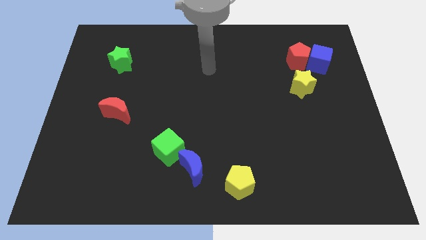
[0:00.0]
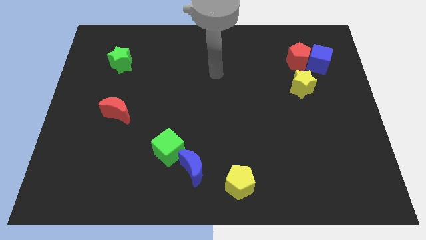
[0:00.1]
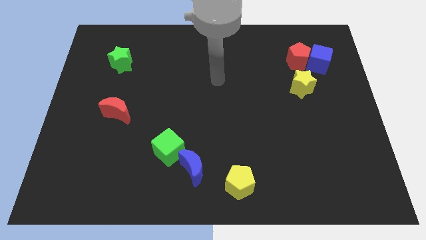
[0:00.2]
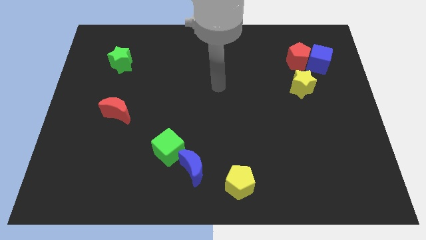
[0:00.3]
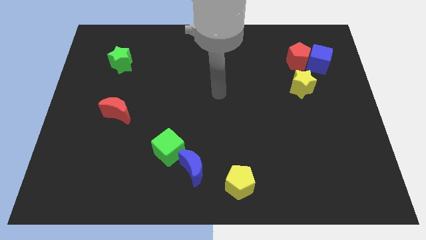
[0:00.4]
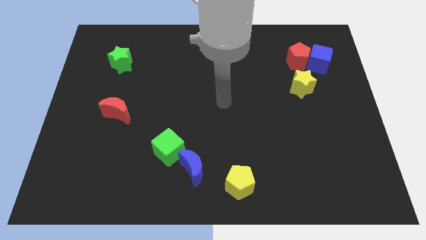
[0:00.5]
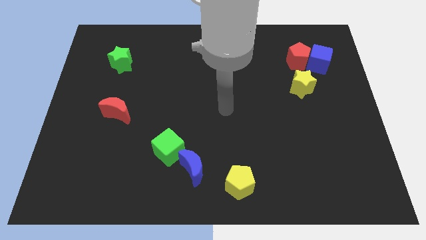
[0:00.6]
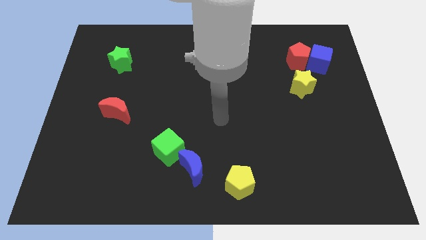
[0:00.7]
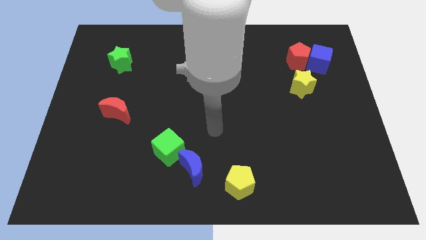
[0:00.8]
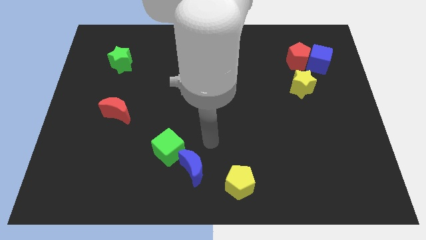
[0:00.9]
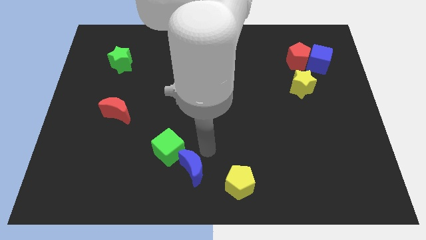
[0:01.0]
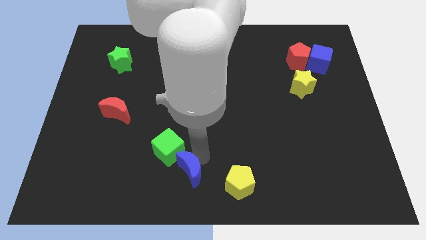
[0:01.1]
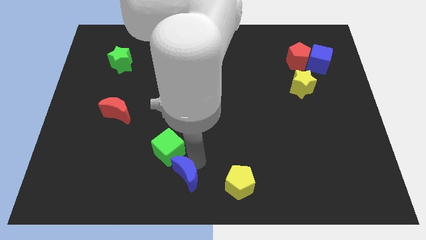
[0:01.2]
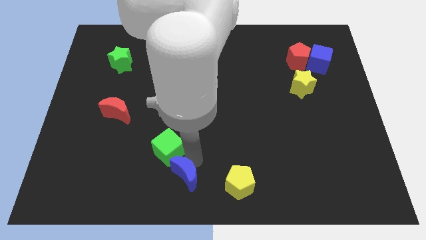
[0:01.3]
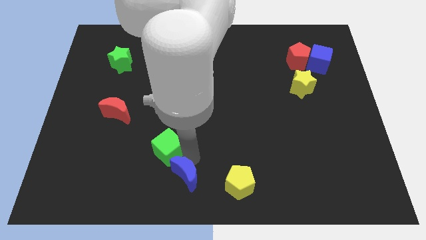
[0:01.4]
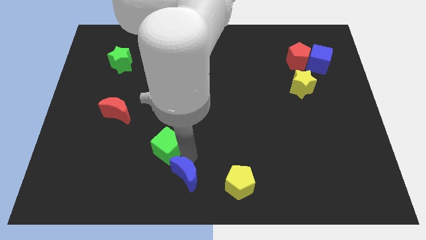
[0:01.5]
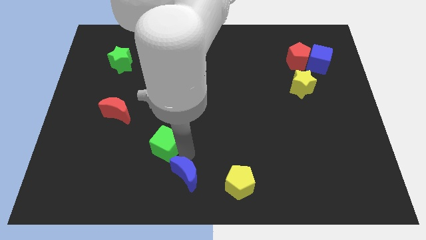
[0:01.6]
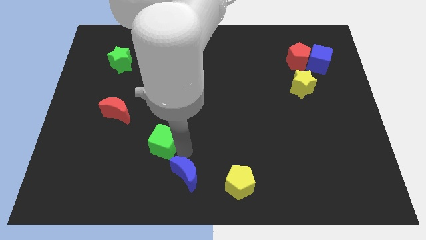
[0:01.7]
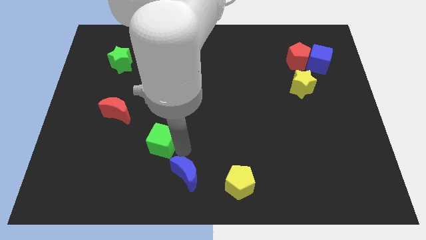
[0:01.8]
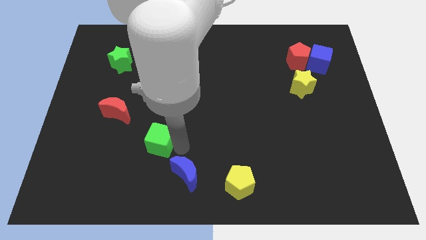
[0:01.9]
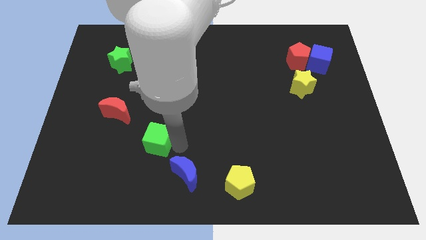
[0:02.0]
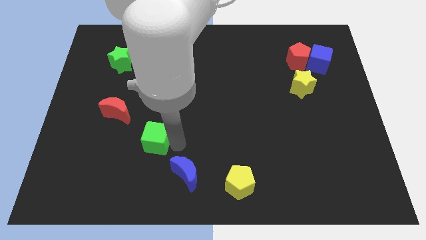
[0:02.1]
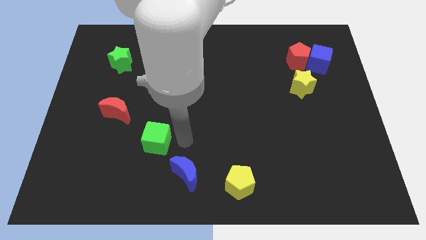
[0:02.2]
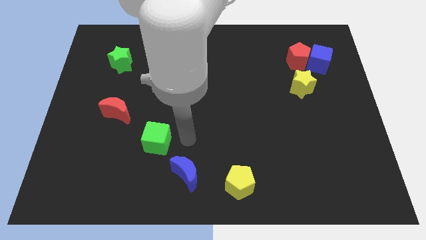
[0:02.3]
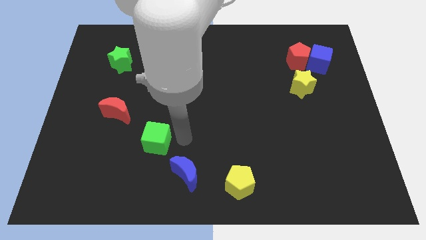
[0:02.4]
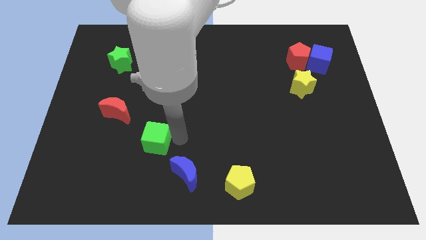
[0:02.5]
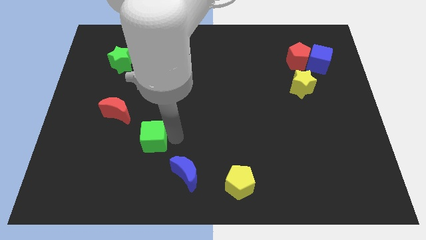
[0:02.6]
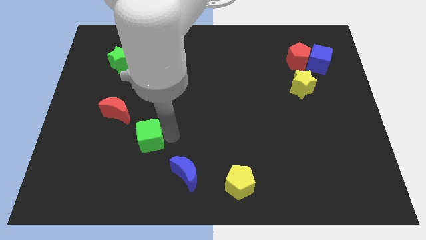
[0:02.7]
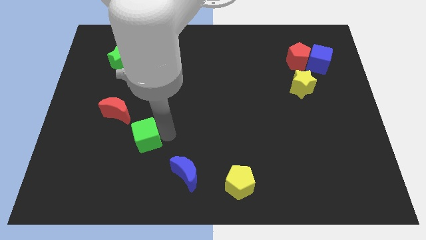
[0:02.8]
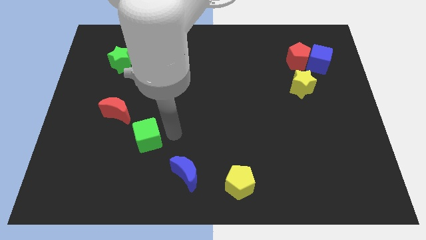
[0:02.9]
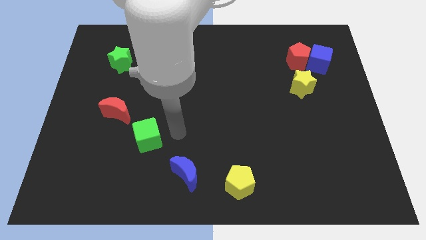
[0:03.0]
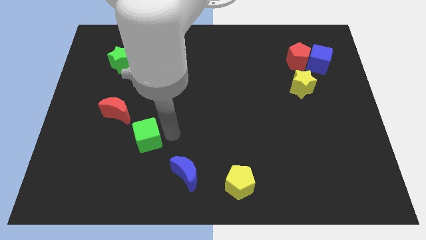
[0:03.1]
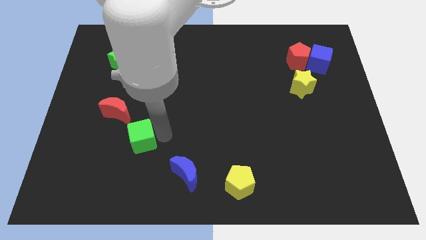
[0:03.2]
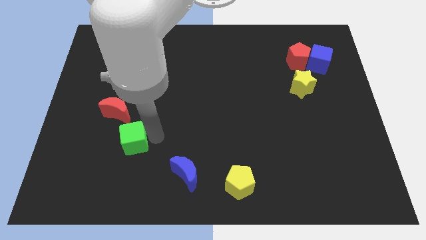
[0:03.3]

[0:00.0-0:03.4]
move the green cube a little bit to the left

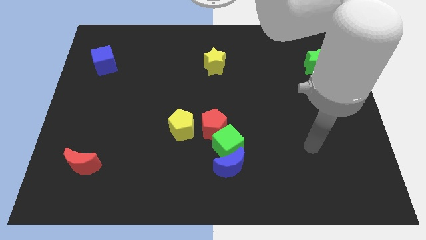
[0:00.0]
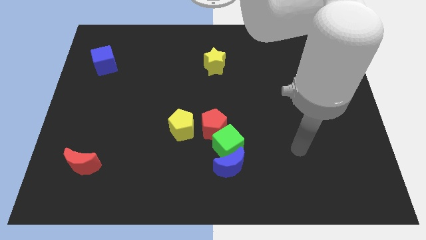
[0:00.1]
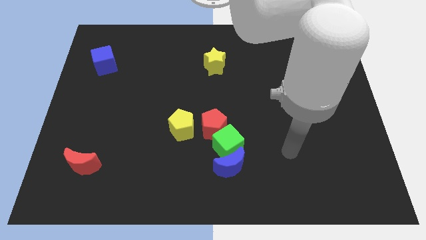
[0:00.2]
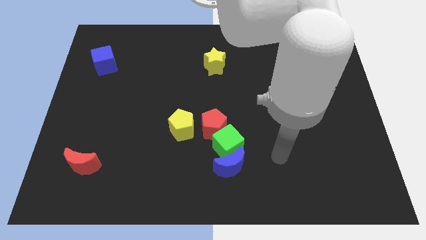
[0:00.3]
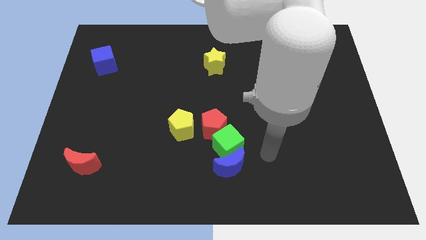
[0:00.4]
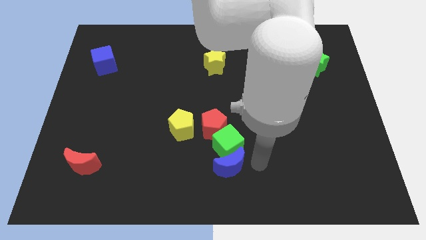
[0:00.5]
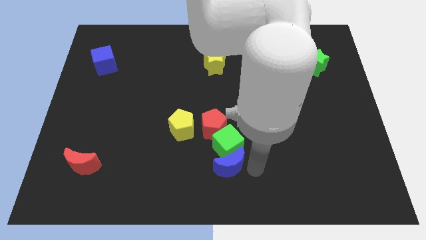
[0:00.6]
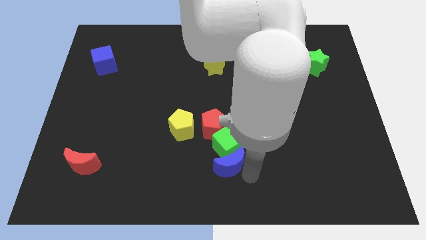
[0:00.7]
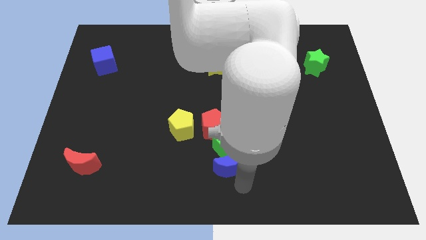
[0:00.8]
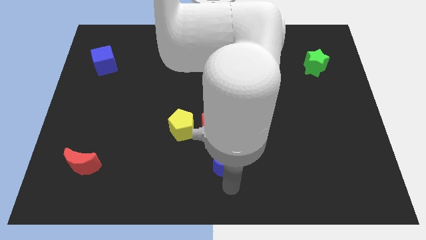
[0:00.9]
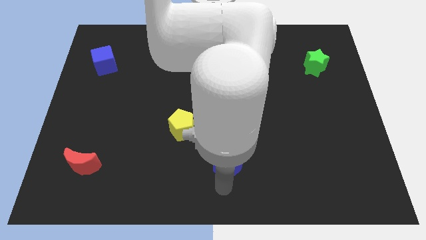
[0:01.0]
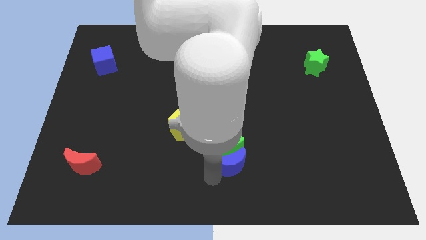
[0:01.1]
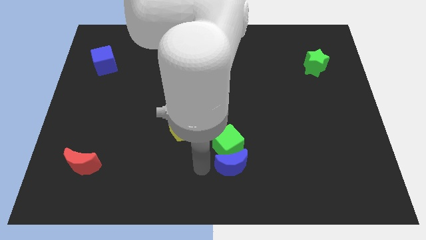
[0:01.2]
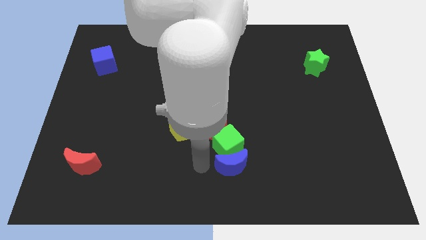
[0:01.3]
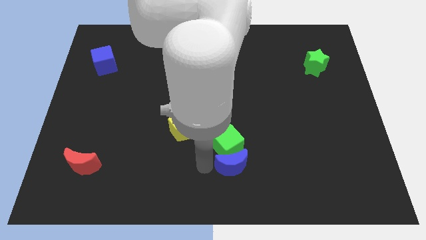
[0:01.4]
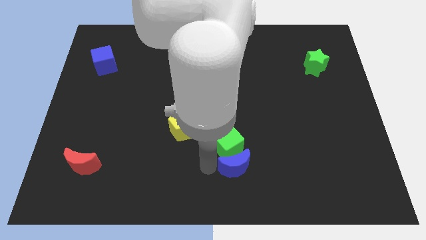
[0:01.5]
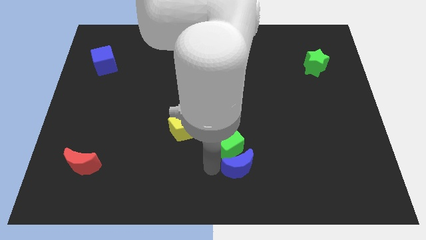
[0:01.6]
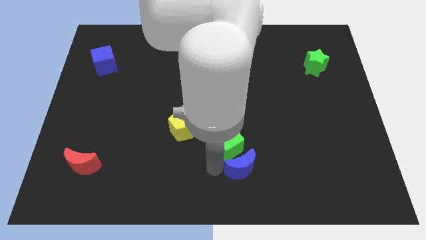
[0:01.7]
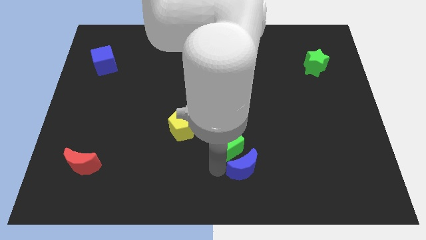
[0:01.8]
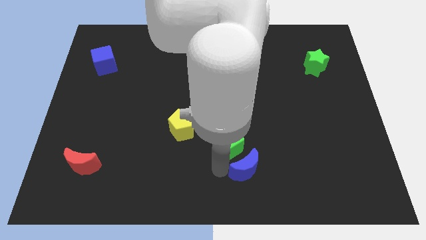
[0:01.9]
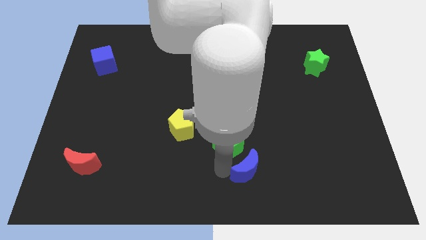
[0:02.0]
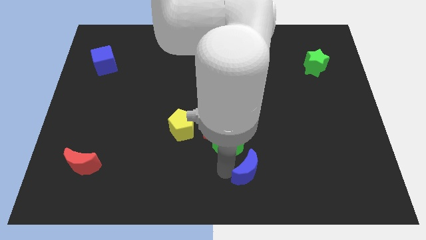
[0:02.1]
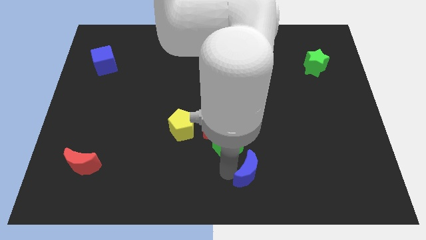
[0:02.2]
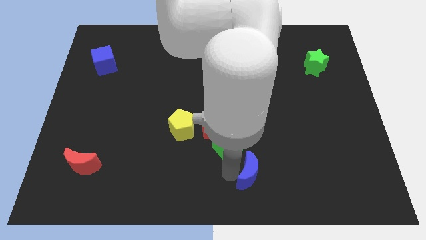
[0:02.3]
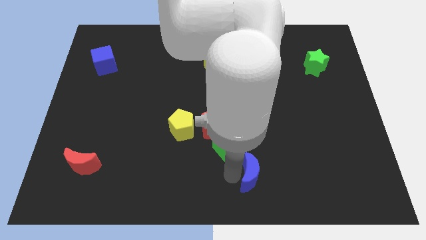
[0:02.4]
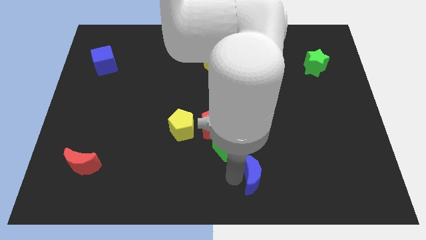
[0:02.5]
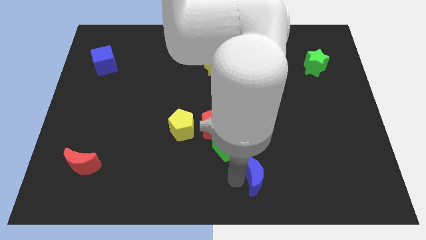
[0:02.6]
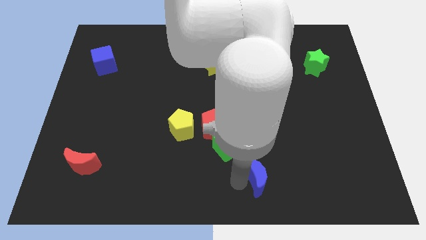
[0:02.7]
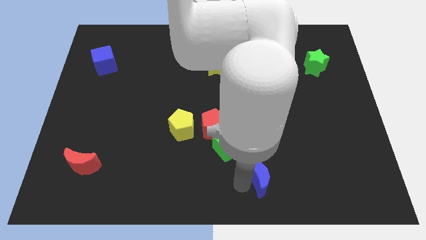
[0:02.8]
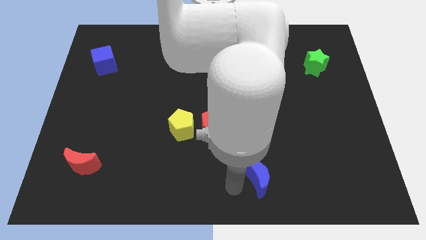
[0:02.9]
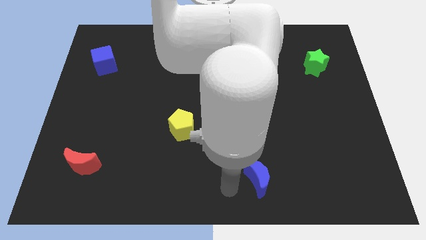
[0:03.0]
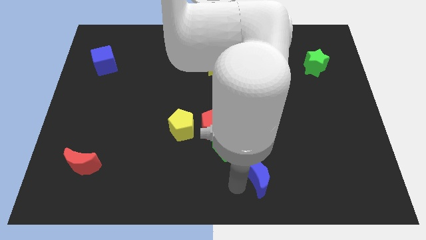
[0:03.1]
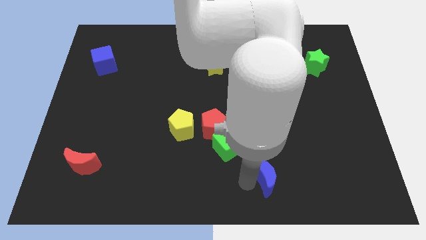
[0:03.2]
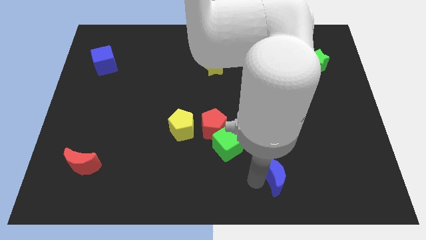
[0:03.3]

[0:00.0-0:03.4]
slightly move the blue moon right

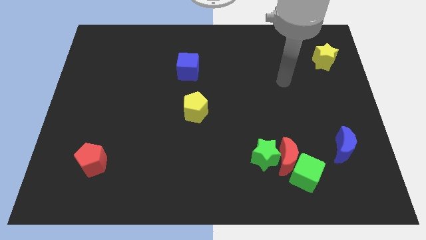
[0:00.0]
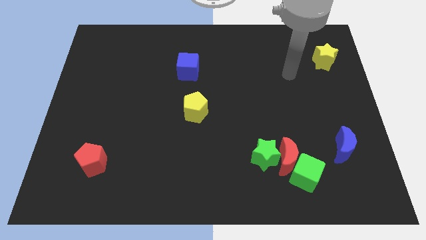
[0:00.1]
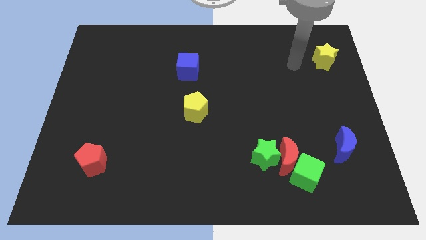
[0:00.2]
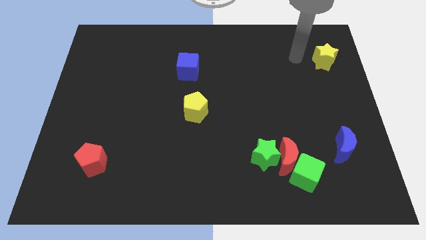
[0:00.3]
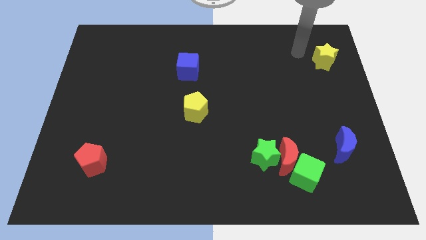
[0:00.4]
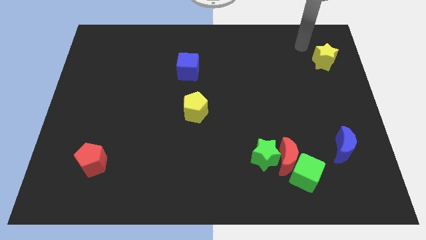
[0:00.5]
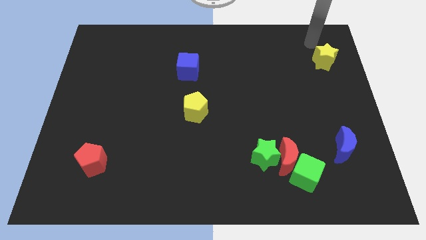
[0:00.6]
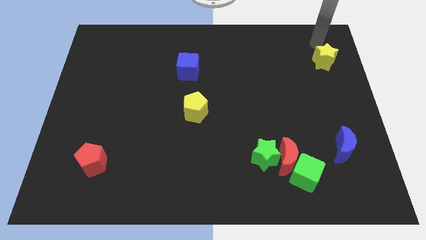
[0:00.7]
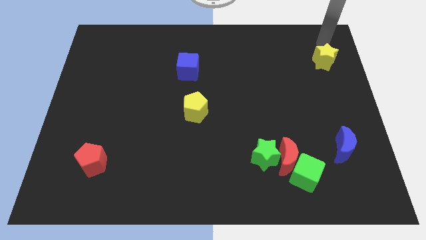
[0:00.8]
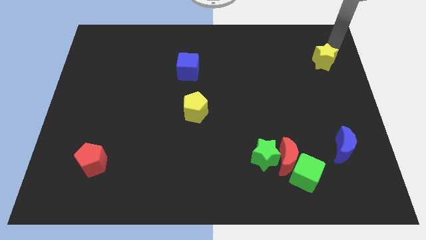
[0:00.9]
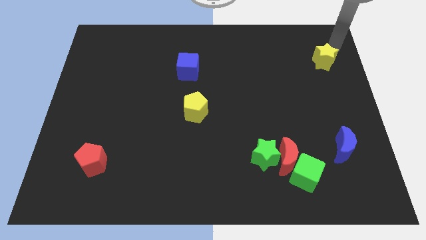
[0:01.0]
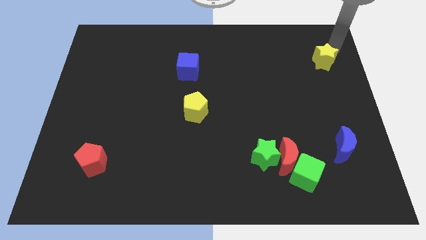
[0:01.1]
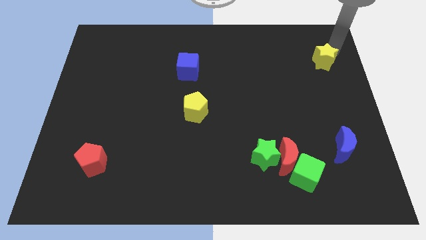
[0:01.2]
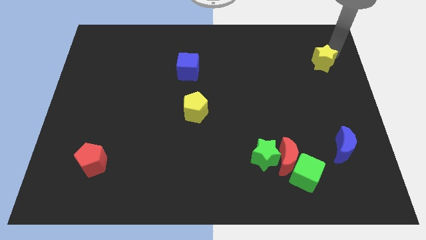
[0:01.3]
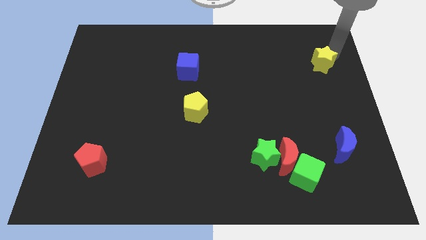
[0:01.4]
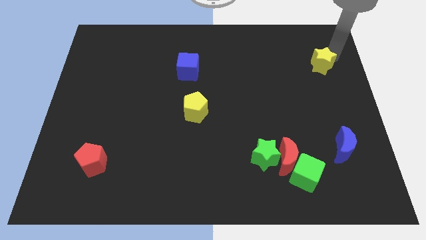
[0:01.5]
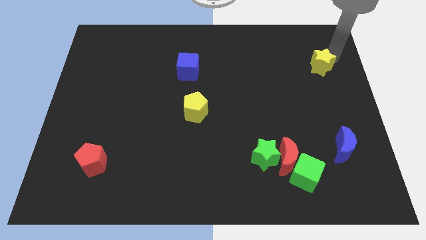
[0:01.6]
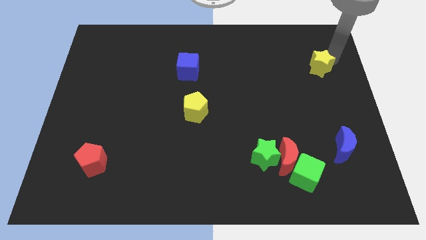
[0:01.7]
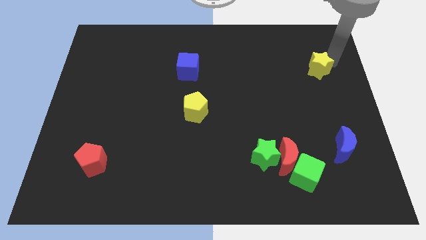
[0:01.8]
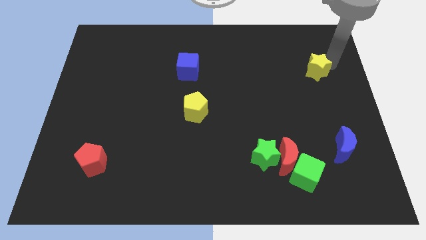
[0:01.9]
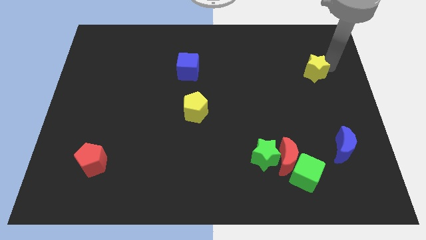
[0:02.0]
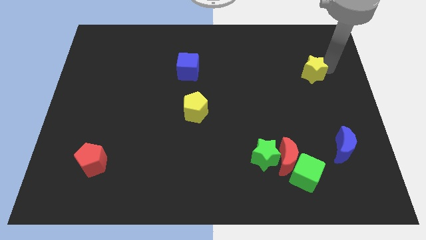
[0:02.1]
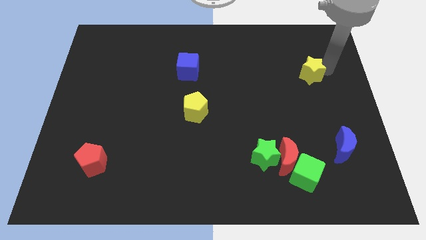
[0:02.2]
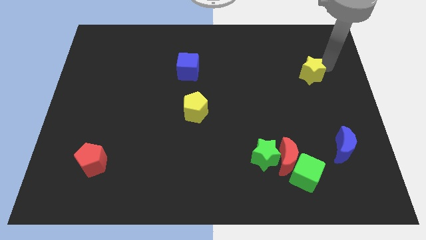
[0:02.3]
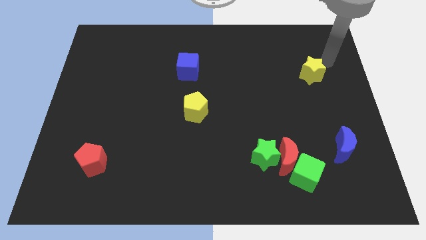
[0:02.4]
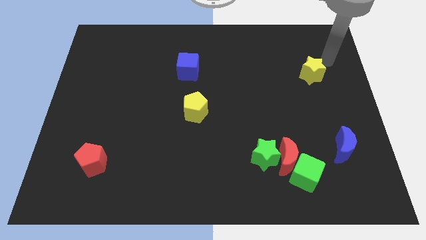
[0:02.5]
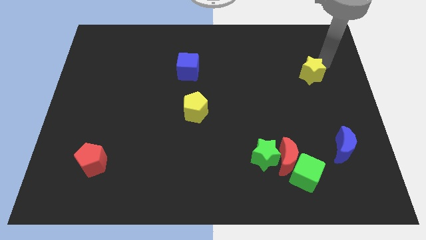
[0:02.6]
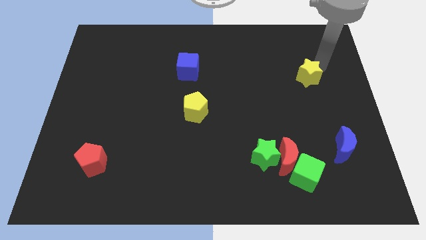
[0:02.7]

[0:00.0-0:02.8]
push the yellow star downwards and to the left somewhat
